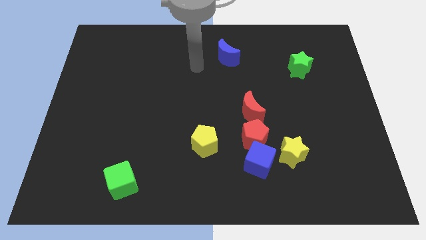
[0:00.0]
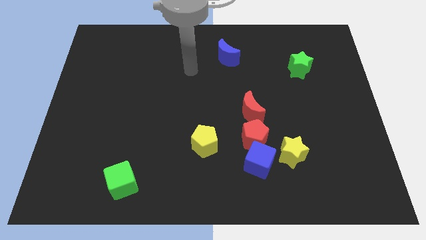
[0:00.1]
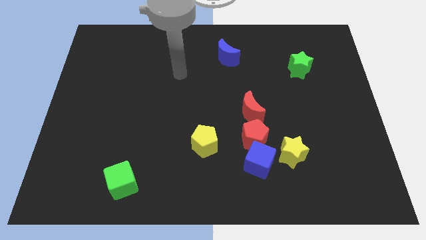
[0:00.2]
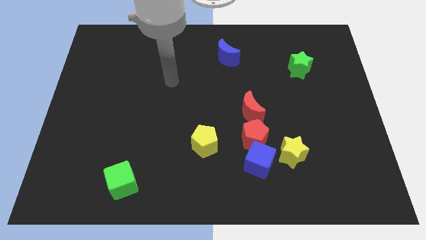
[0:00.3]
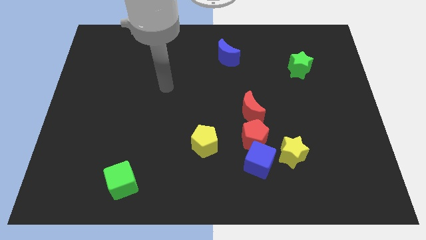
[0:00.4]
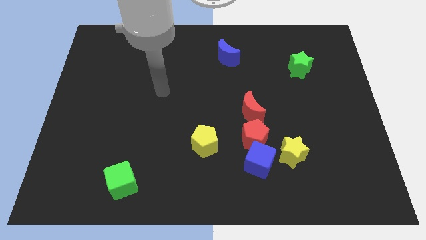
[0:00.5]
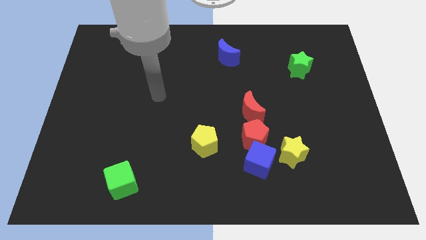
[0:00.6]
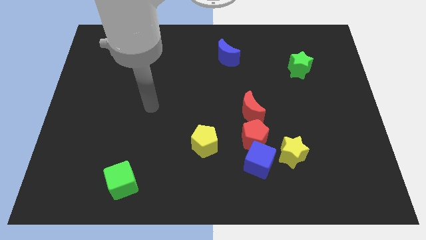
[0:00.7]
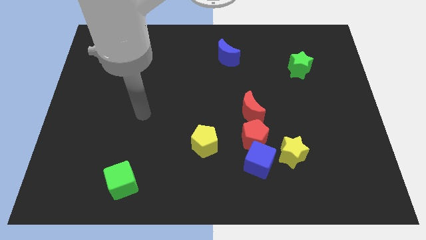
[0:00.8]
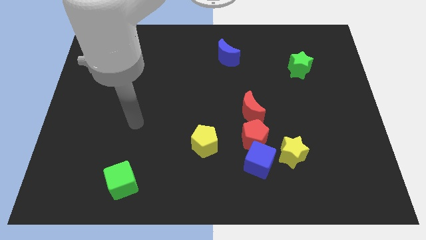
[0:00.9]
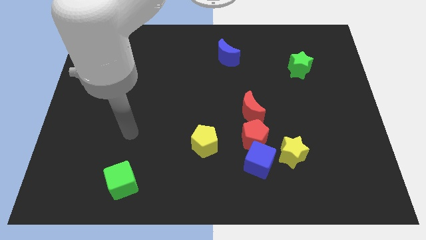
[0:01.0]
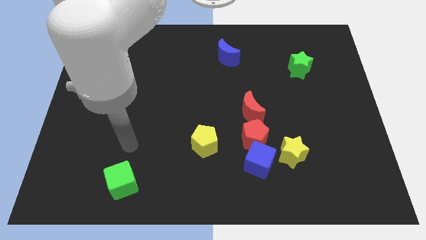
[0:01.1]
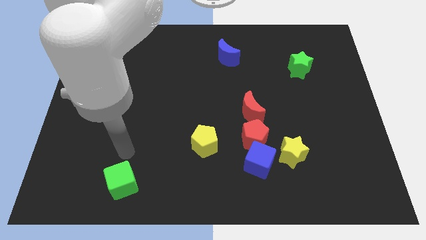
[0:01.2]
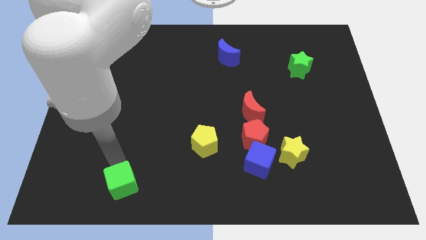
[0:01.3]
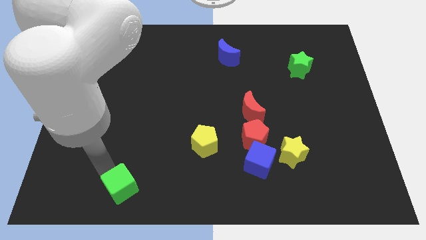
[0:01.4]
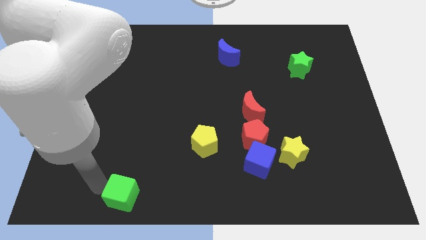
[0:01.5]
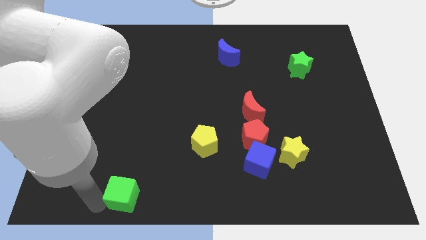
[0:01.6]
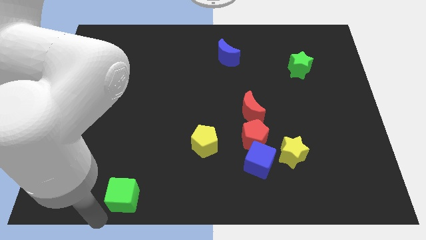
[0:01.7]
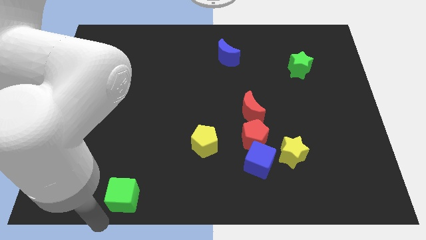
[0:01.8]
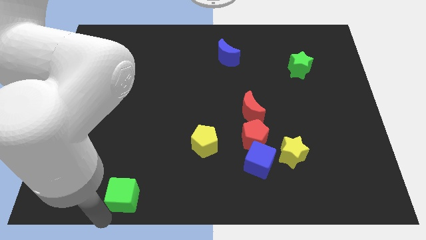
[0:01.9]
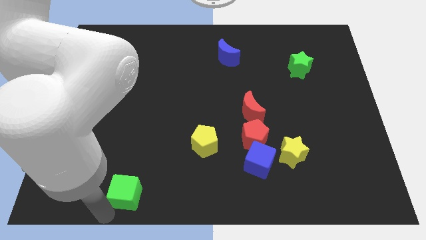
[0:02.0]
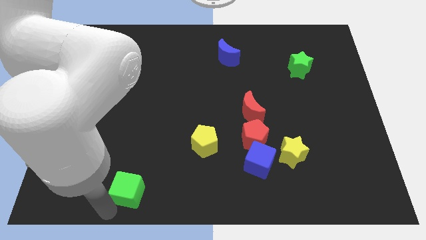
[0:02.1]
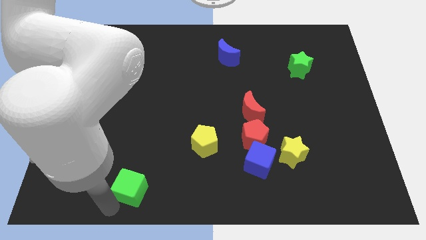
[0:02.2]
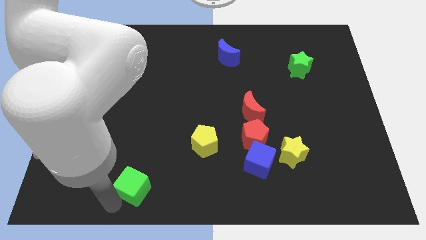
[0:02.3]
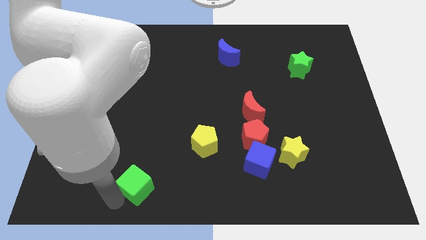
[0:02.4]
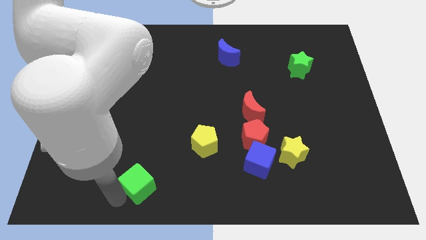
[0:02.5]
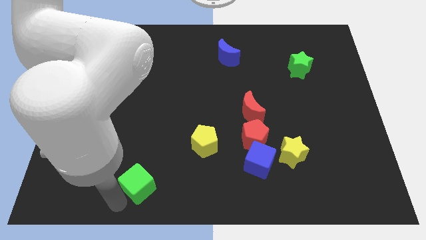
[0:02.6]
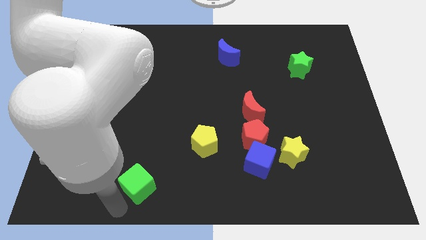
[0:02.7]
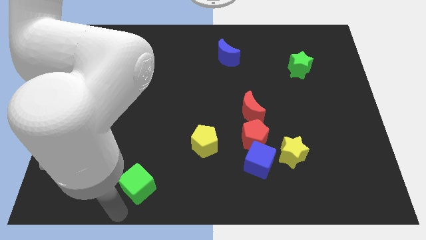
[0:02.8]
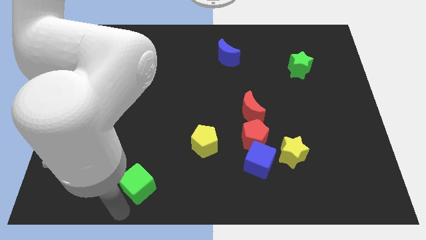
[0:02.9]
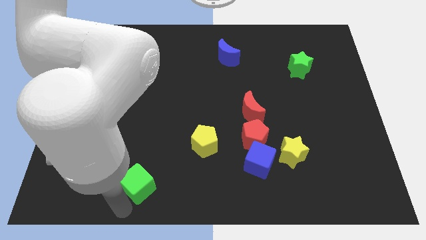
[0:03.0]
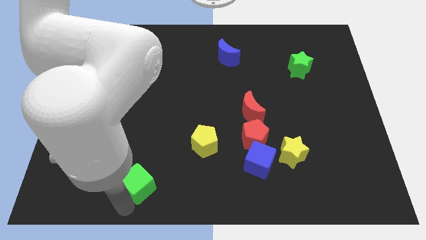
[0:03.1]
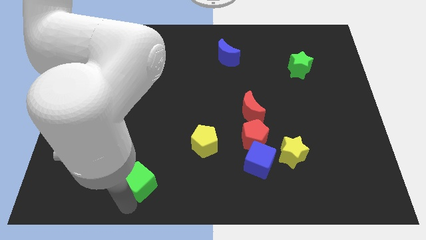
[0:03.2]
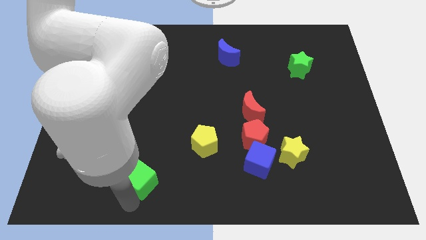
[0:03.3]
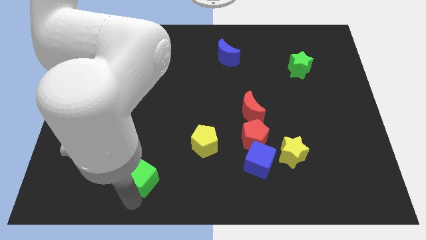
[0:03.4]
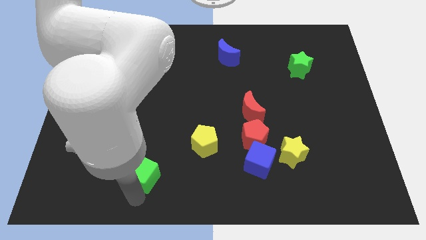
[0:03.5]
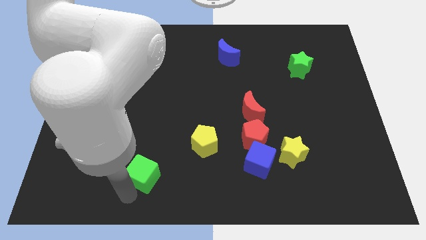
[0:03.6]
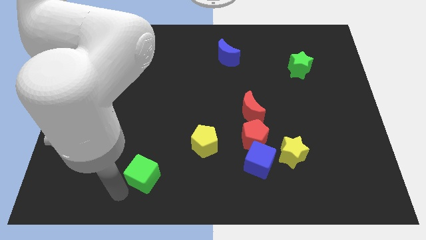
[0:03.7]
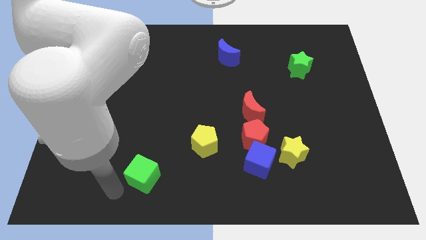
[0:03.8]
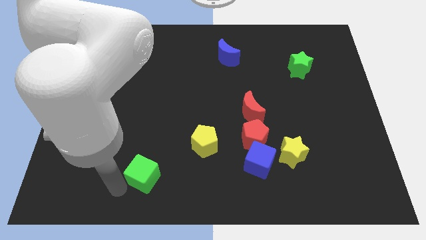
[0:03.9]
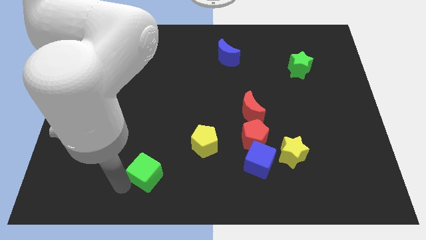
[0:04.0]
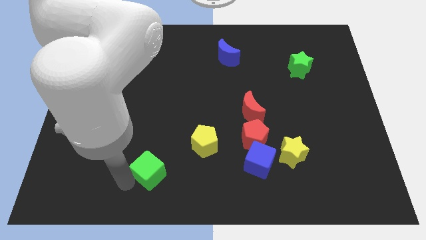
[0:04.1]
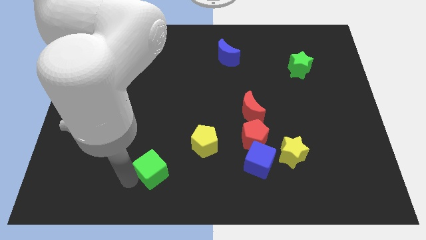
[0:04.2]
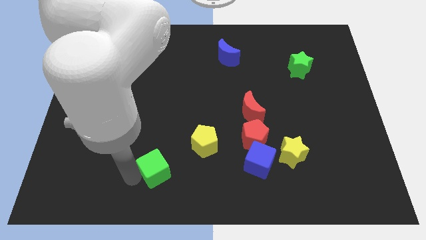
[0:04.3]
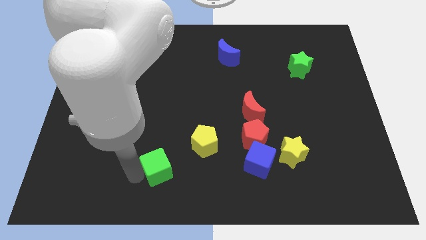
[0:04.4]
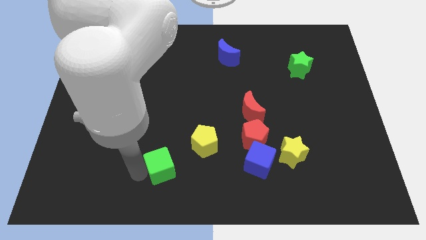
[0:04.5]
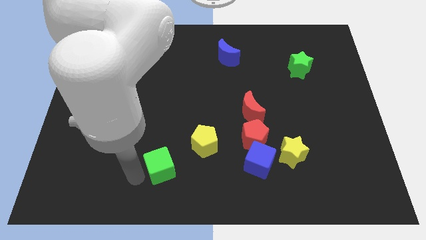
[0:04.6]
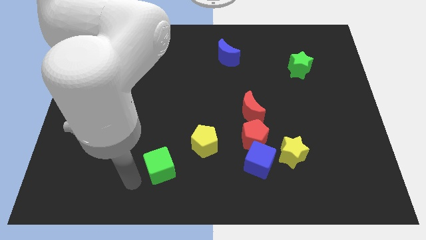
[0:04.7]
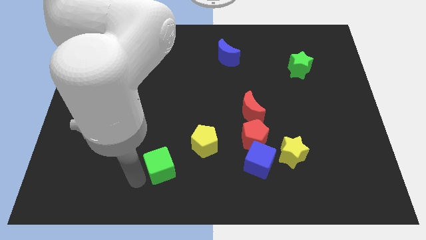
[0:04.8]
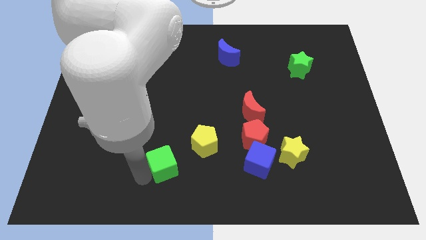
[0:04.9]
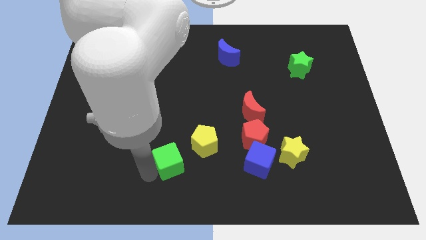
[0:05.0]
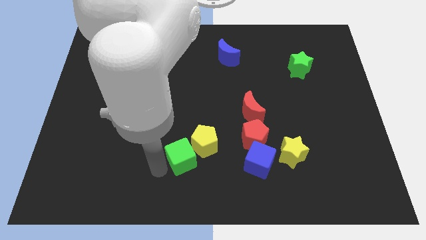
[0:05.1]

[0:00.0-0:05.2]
move the green cube to the yellow pentagon

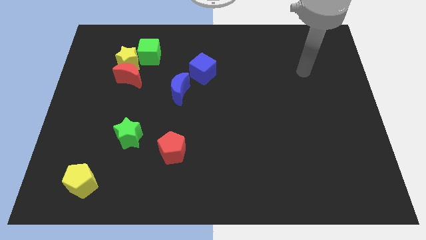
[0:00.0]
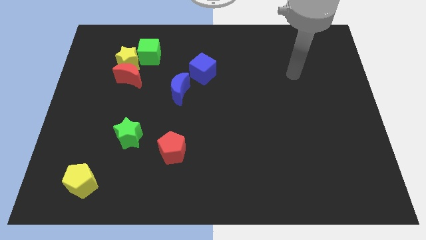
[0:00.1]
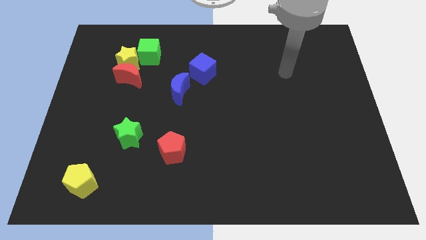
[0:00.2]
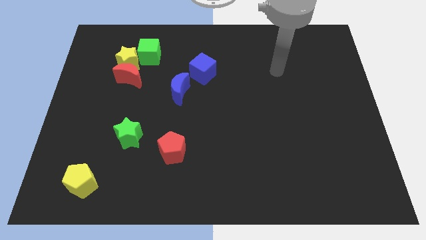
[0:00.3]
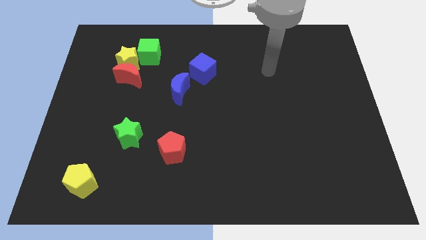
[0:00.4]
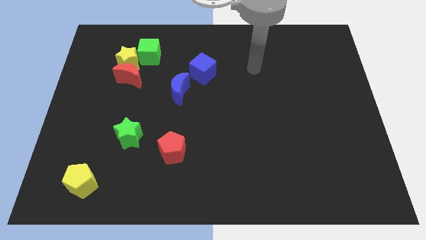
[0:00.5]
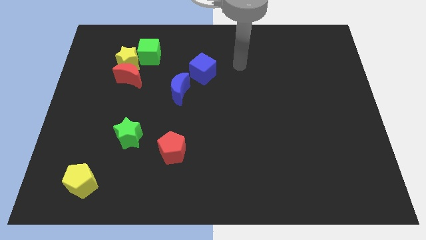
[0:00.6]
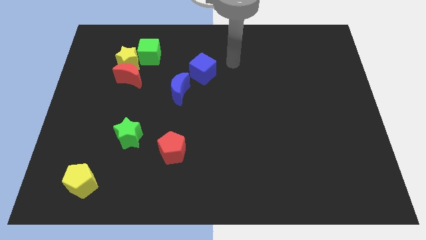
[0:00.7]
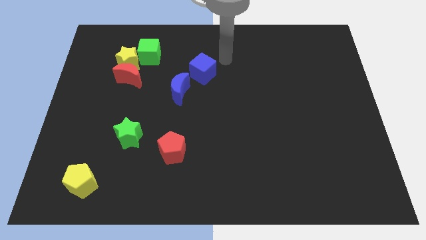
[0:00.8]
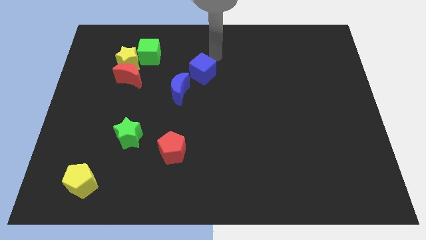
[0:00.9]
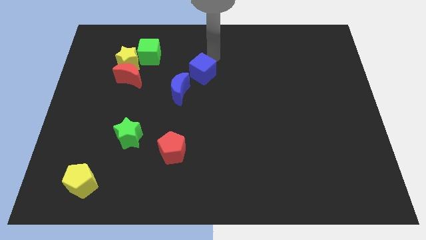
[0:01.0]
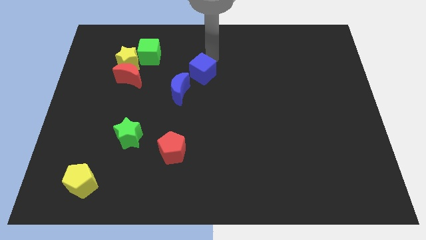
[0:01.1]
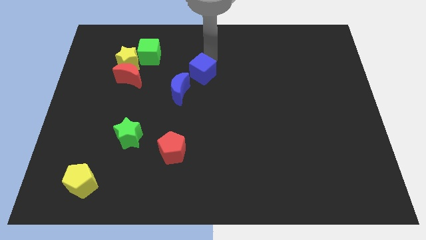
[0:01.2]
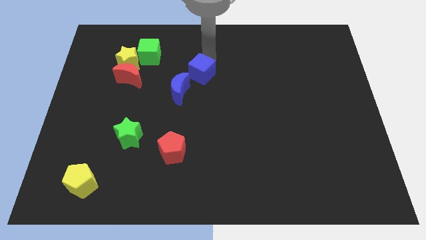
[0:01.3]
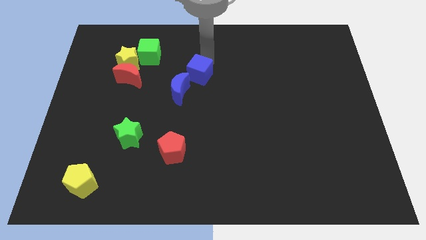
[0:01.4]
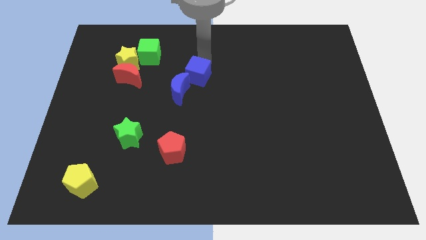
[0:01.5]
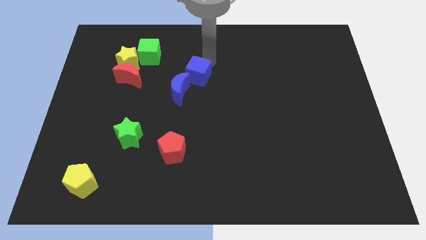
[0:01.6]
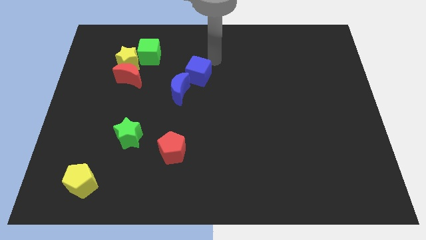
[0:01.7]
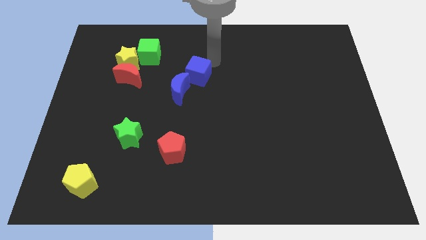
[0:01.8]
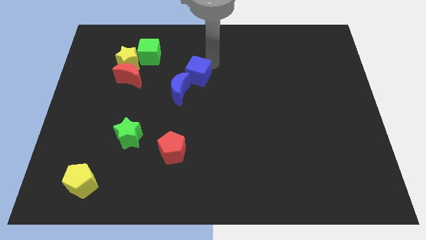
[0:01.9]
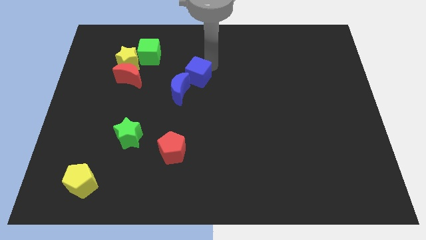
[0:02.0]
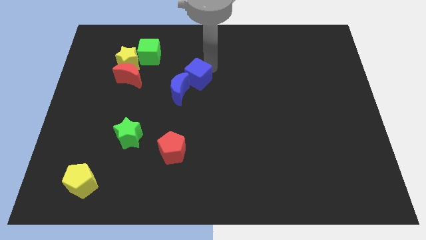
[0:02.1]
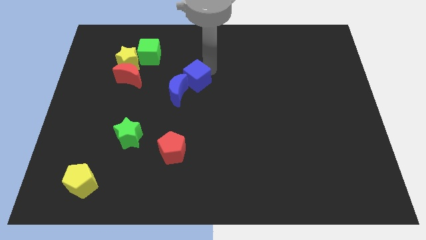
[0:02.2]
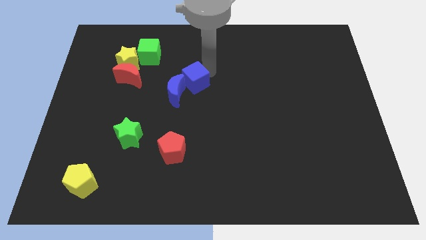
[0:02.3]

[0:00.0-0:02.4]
push the blue cube towards the blue moon
